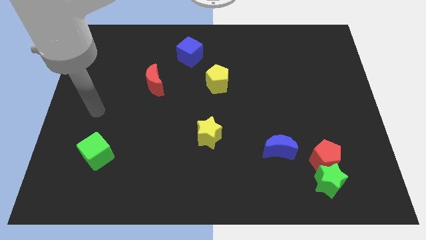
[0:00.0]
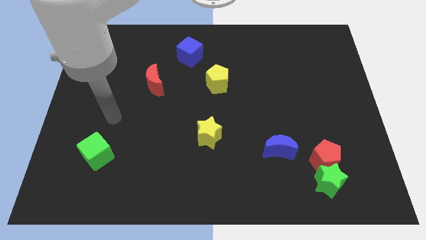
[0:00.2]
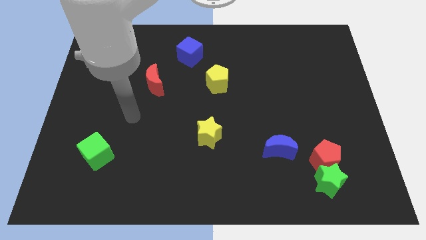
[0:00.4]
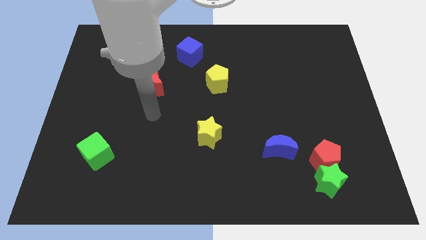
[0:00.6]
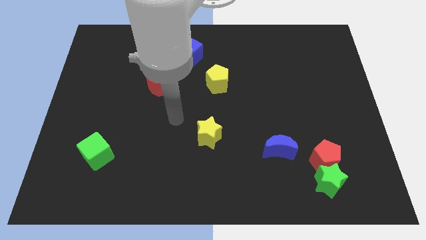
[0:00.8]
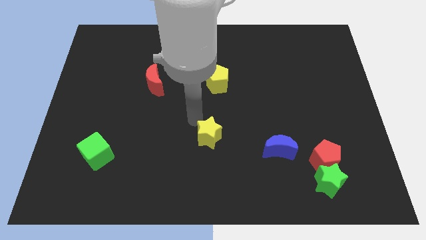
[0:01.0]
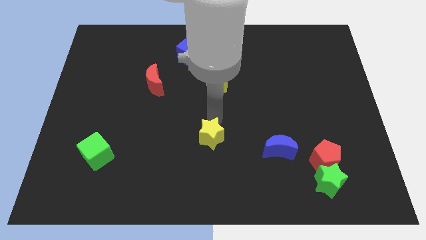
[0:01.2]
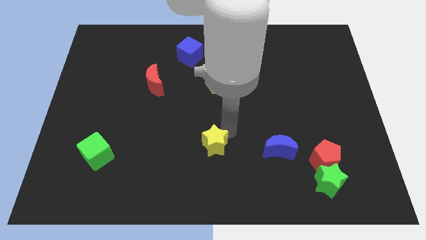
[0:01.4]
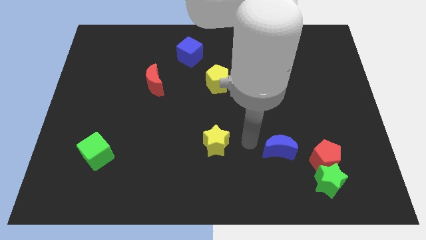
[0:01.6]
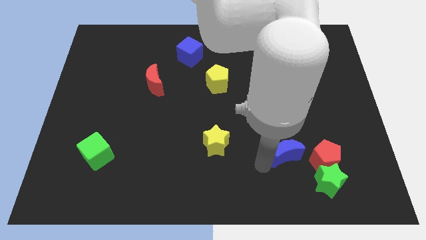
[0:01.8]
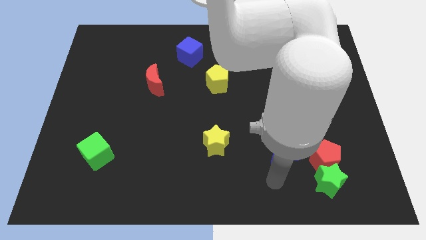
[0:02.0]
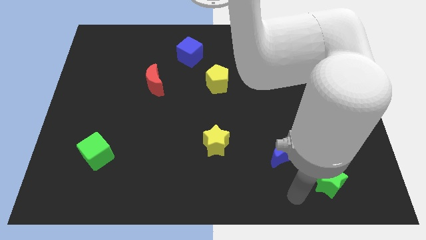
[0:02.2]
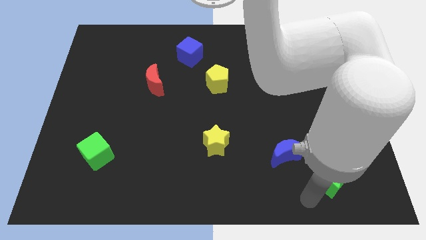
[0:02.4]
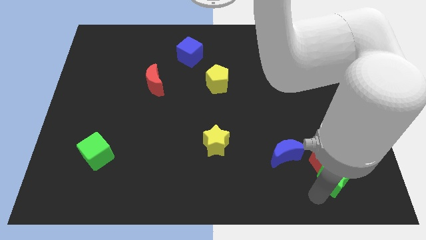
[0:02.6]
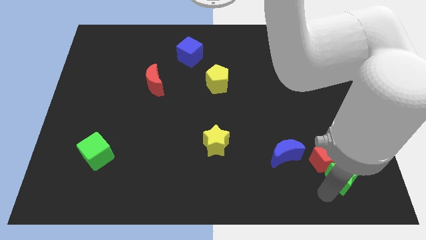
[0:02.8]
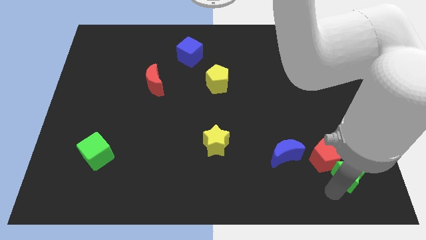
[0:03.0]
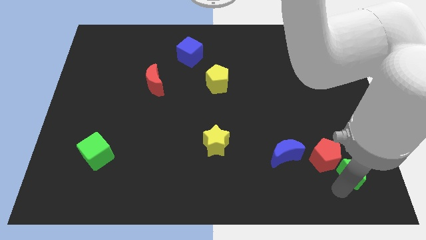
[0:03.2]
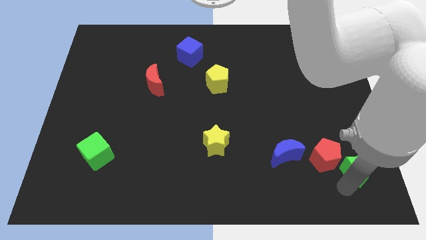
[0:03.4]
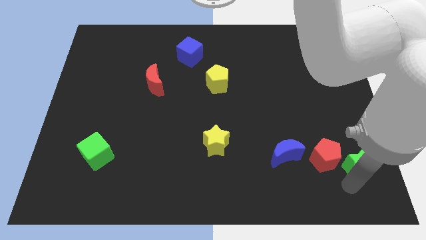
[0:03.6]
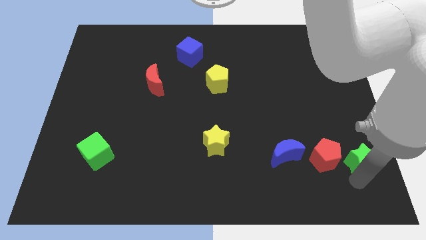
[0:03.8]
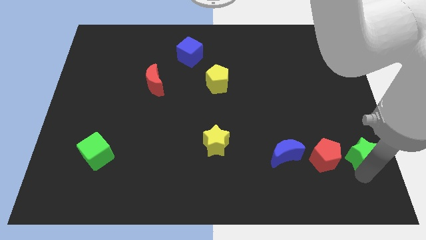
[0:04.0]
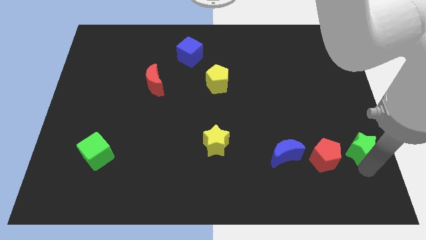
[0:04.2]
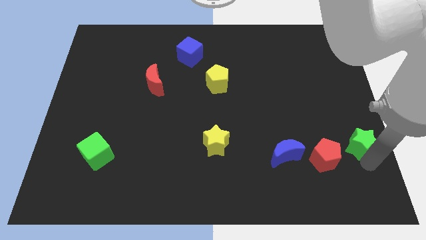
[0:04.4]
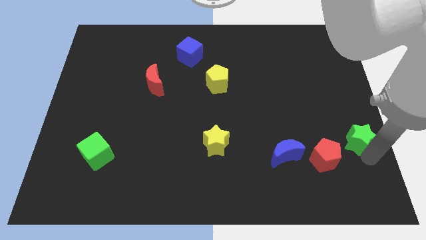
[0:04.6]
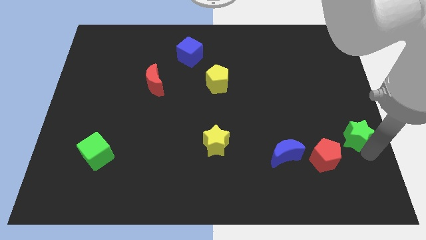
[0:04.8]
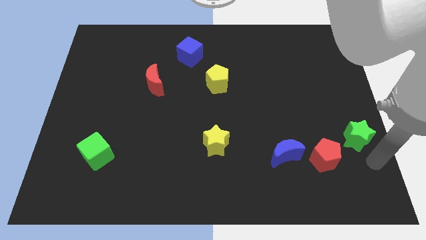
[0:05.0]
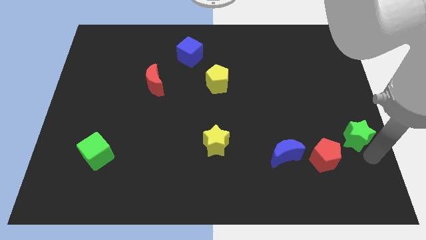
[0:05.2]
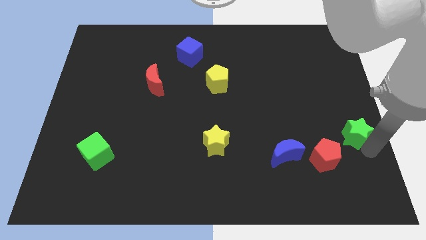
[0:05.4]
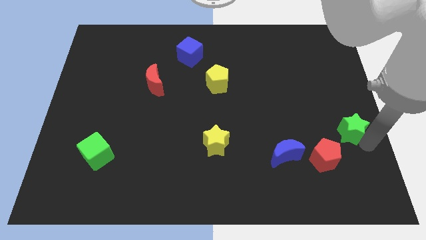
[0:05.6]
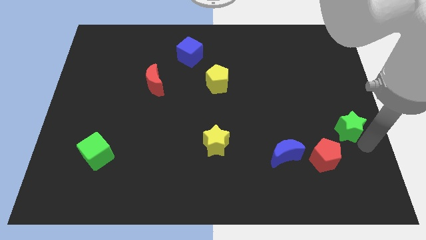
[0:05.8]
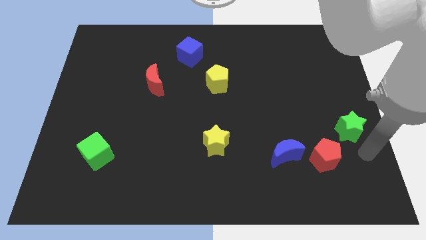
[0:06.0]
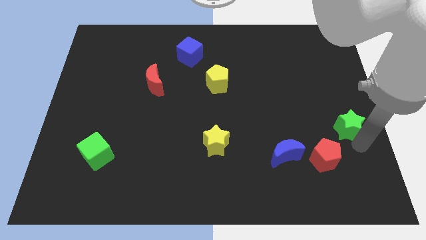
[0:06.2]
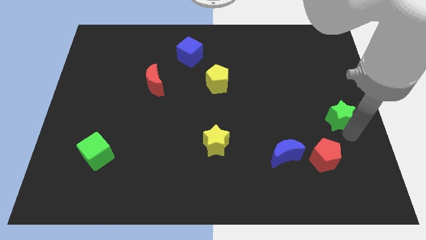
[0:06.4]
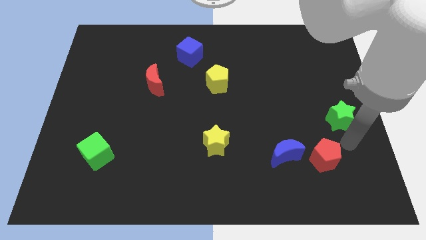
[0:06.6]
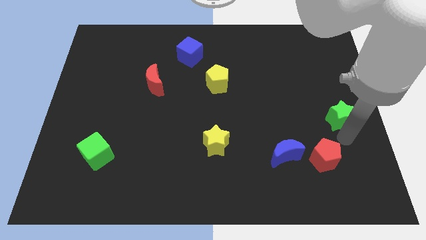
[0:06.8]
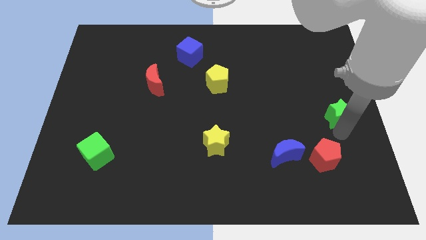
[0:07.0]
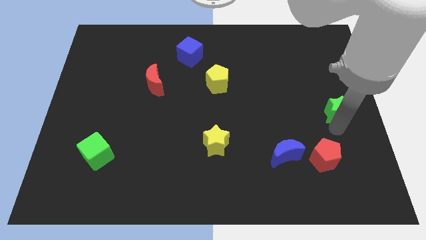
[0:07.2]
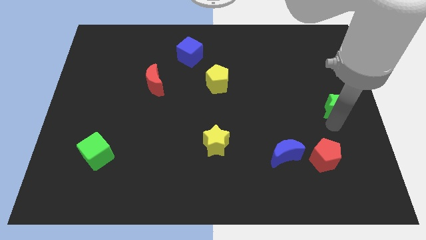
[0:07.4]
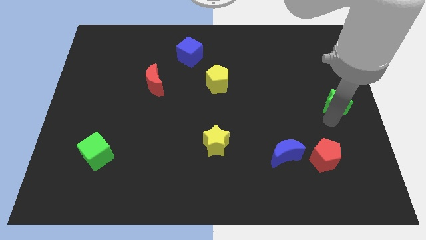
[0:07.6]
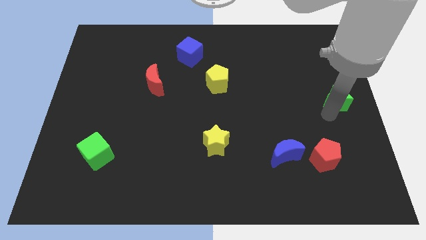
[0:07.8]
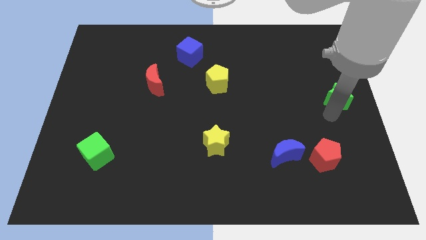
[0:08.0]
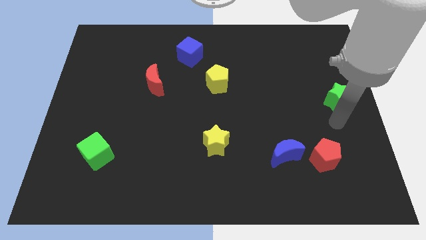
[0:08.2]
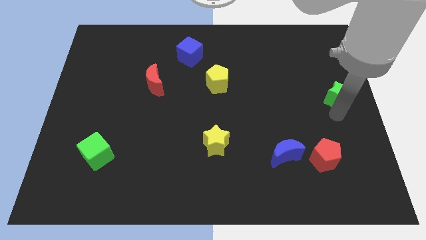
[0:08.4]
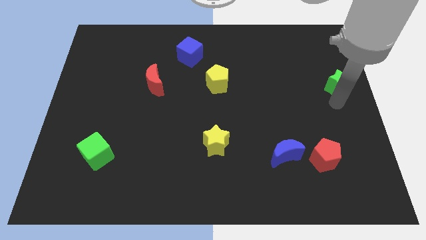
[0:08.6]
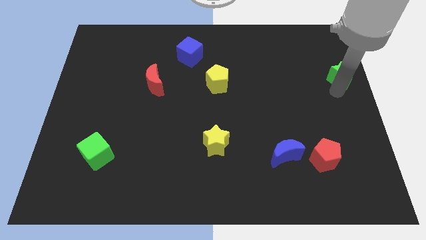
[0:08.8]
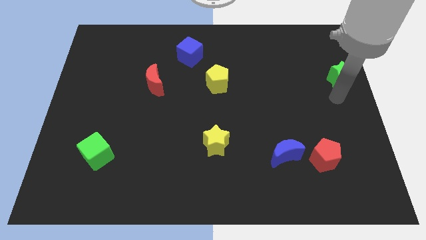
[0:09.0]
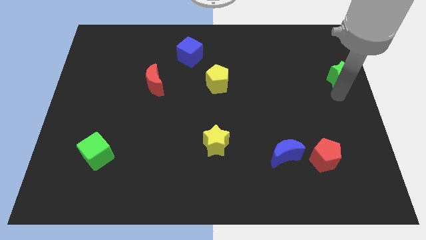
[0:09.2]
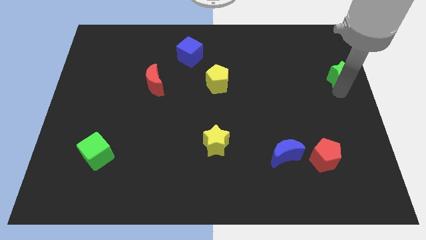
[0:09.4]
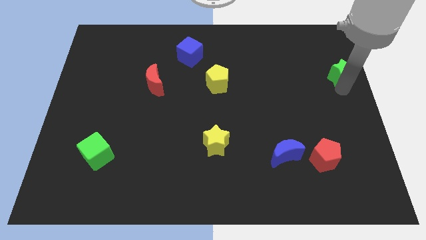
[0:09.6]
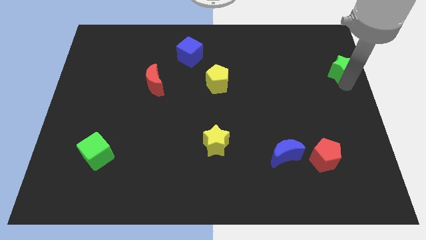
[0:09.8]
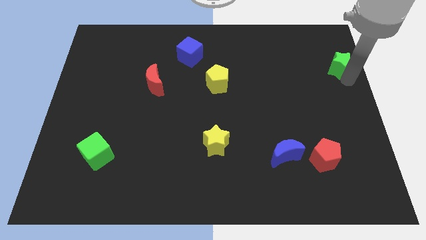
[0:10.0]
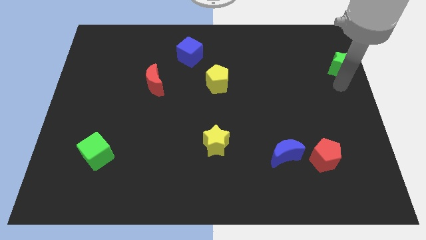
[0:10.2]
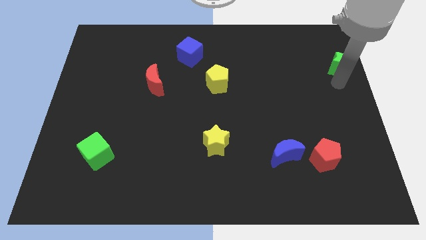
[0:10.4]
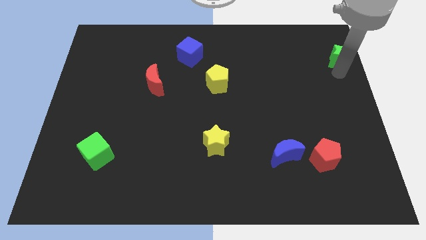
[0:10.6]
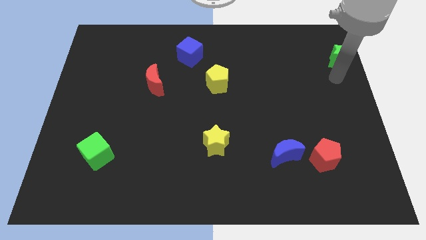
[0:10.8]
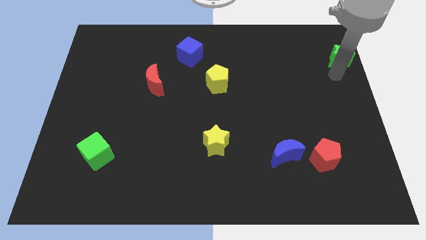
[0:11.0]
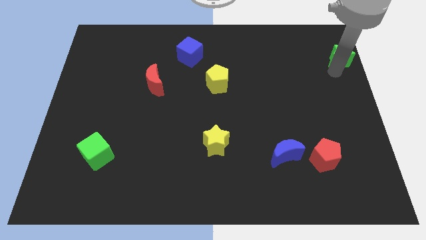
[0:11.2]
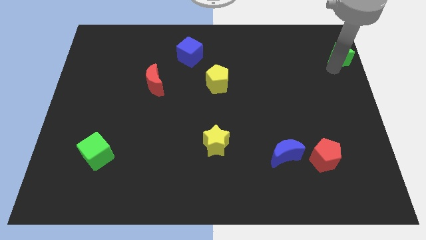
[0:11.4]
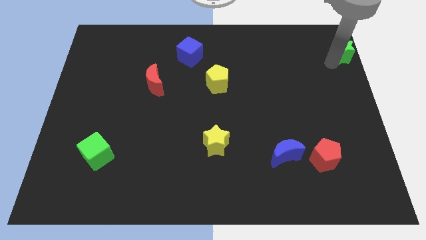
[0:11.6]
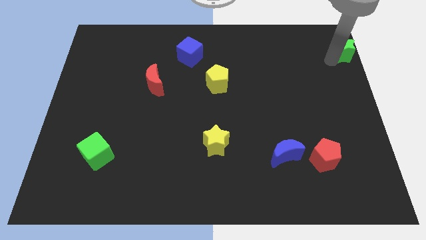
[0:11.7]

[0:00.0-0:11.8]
put the green star to the top right of the board
